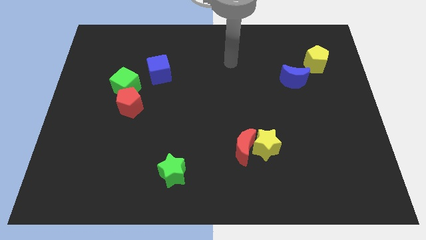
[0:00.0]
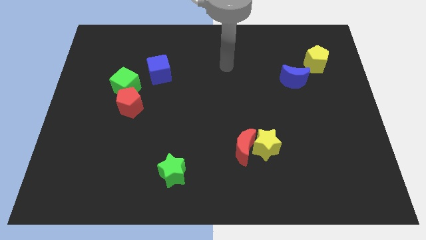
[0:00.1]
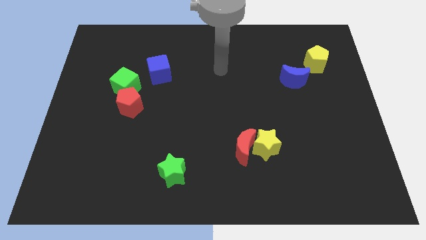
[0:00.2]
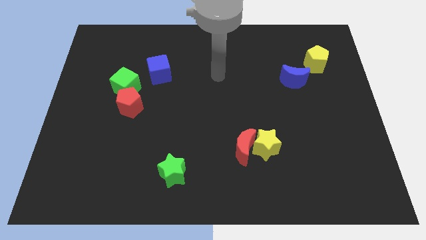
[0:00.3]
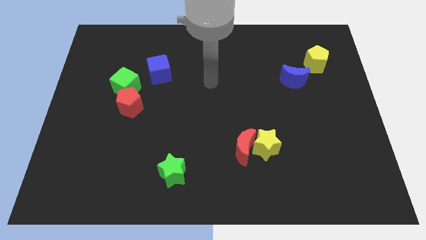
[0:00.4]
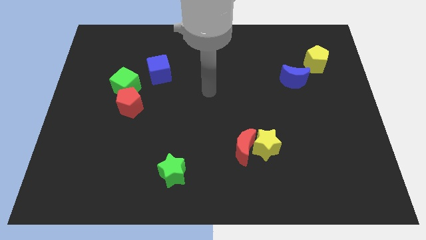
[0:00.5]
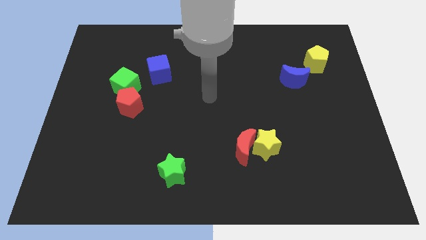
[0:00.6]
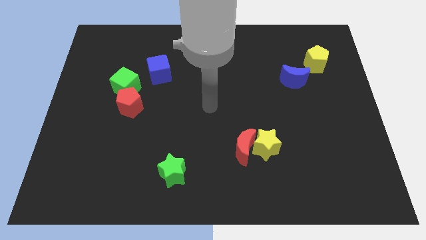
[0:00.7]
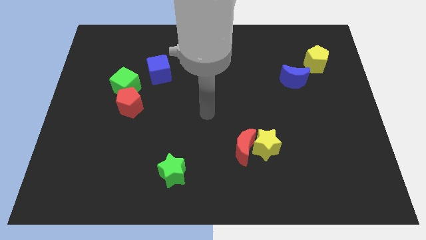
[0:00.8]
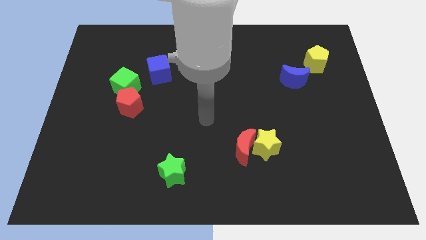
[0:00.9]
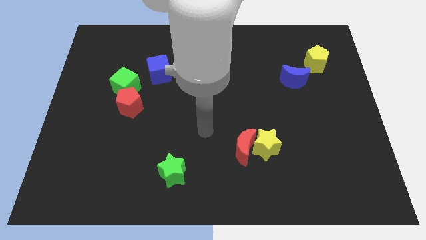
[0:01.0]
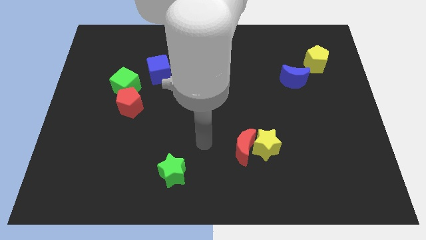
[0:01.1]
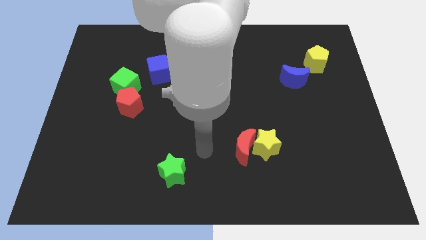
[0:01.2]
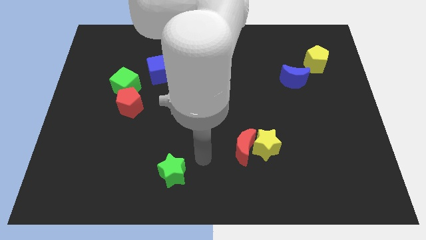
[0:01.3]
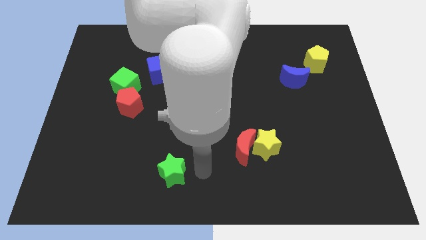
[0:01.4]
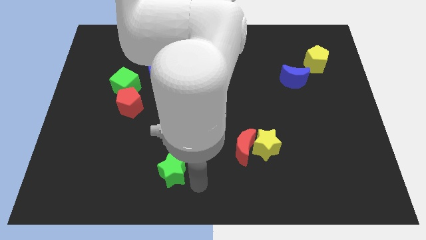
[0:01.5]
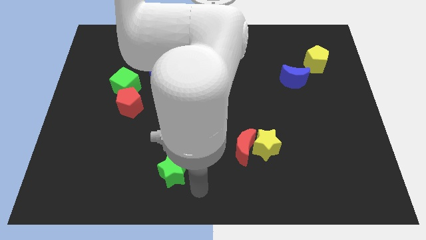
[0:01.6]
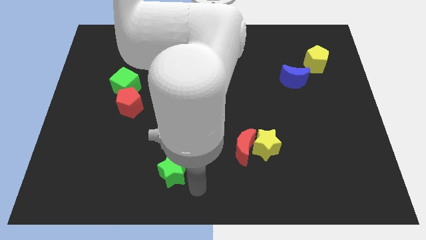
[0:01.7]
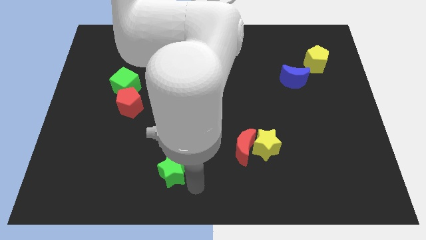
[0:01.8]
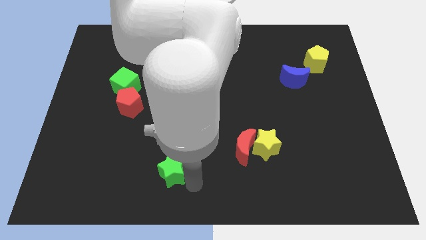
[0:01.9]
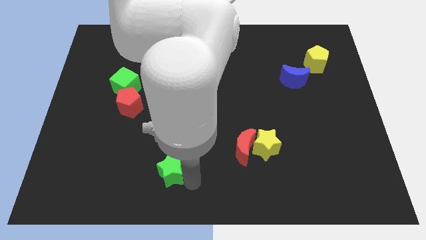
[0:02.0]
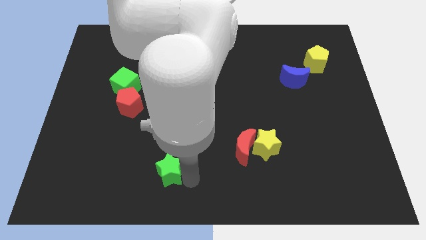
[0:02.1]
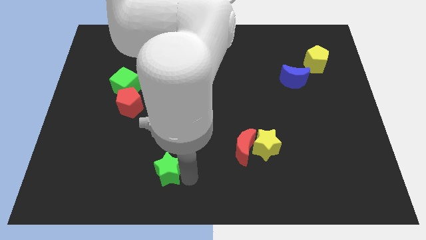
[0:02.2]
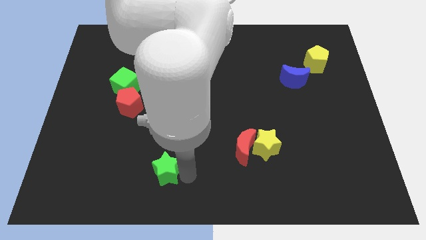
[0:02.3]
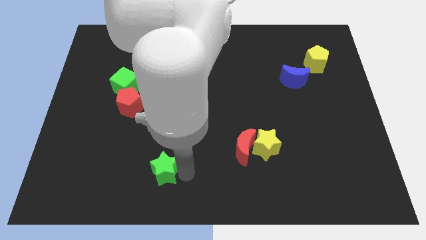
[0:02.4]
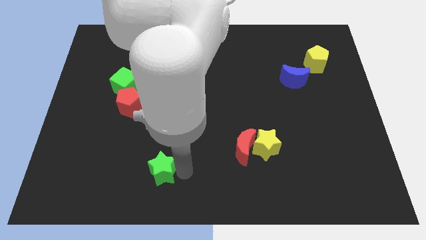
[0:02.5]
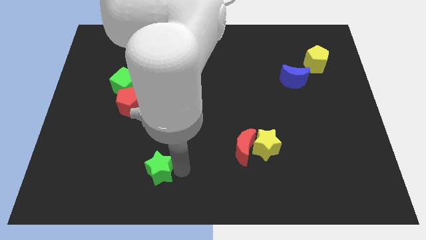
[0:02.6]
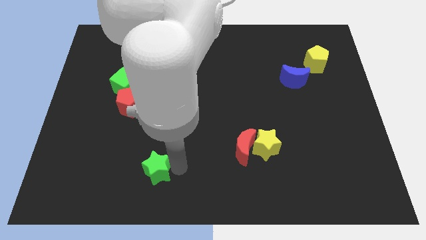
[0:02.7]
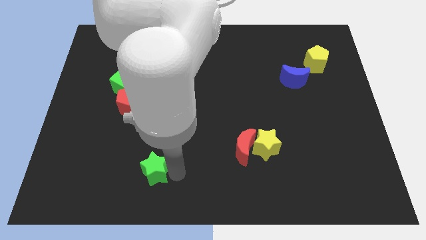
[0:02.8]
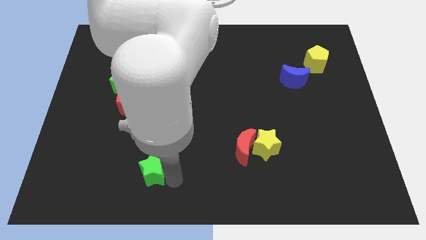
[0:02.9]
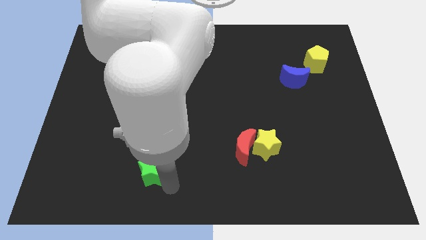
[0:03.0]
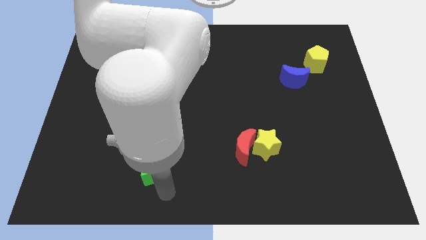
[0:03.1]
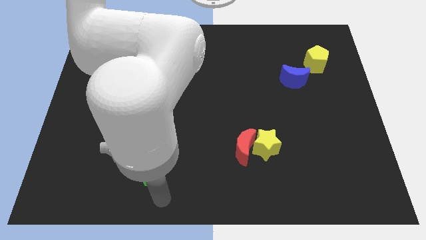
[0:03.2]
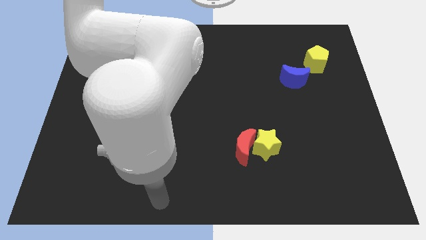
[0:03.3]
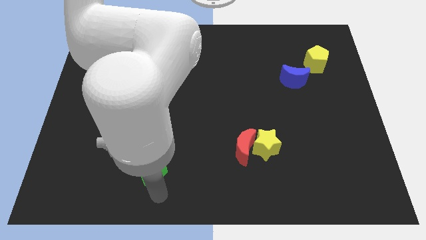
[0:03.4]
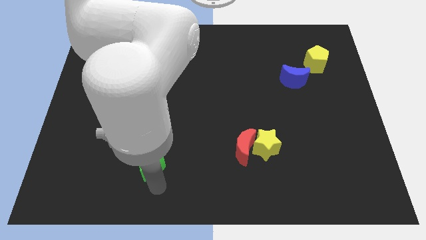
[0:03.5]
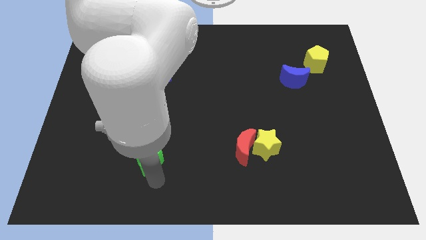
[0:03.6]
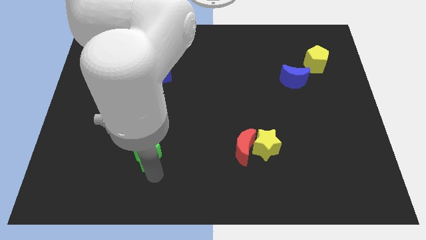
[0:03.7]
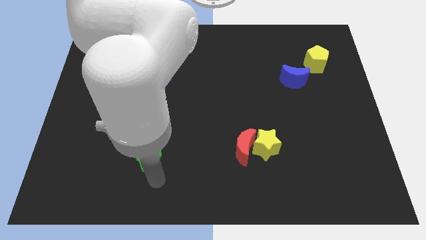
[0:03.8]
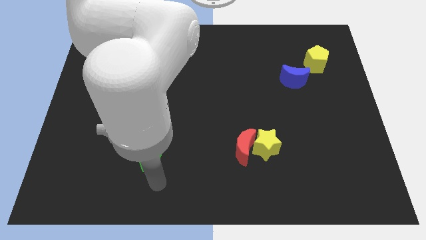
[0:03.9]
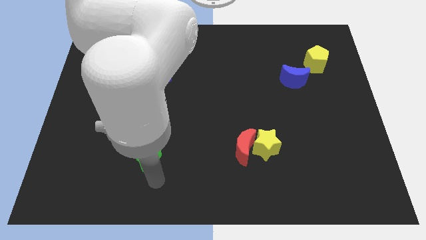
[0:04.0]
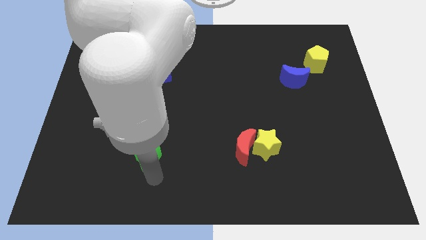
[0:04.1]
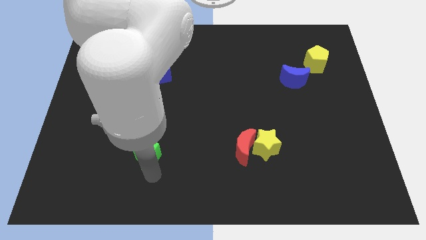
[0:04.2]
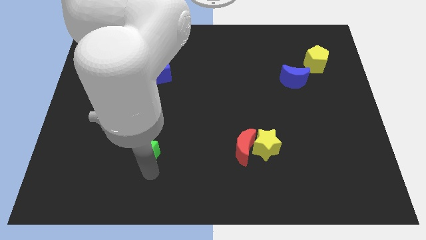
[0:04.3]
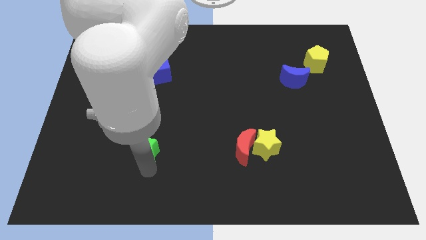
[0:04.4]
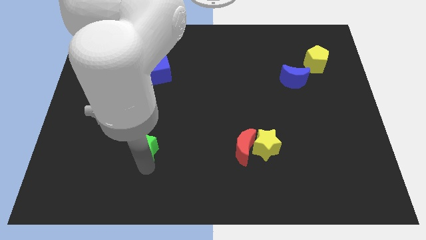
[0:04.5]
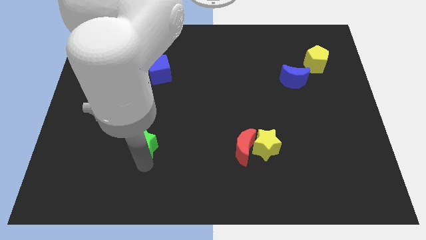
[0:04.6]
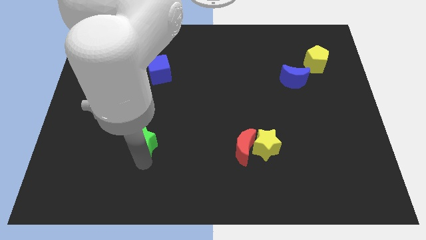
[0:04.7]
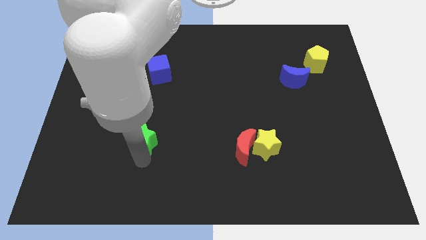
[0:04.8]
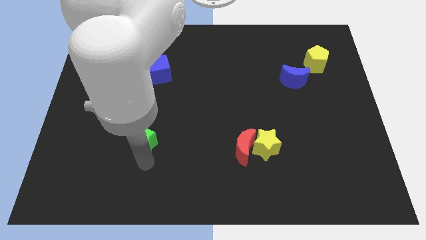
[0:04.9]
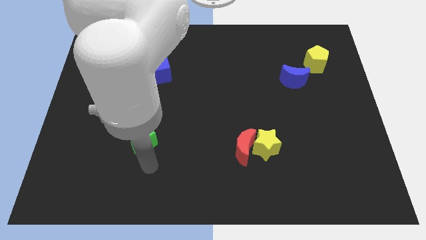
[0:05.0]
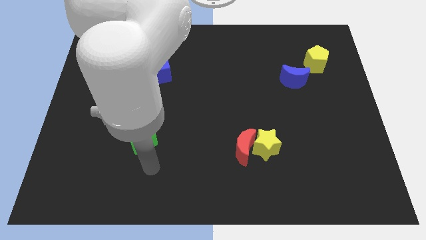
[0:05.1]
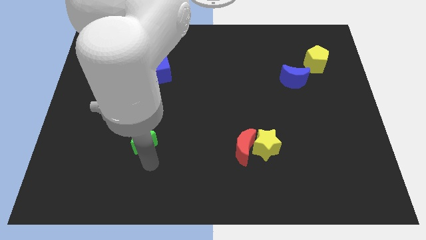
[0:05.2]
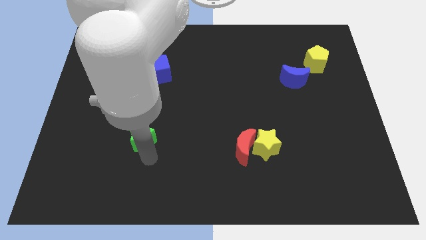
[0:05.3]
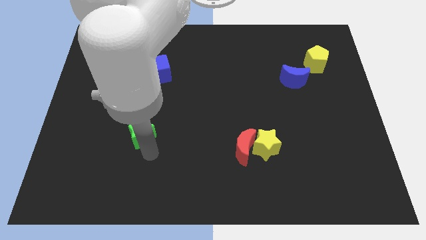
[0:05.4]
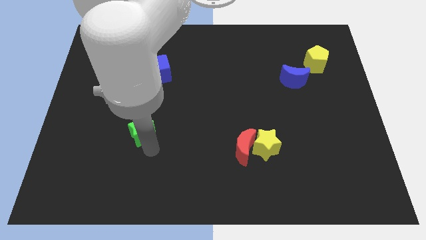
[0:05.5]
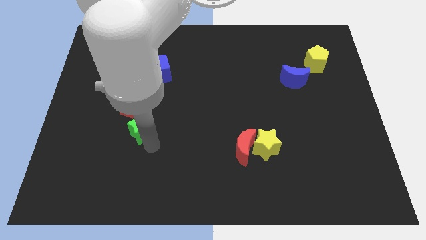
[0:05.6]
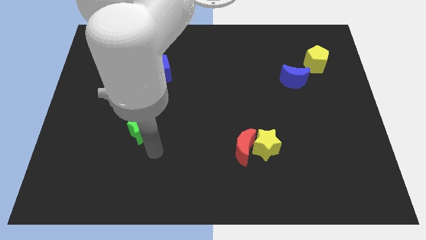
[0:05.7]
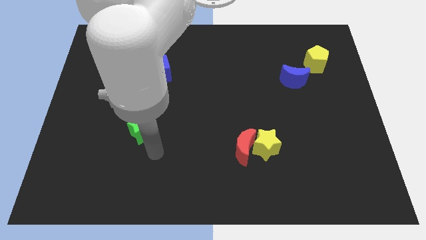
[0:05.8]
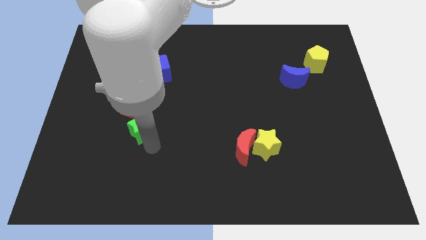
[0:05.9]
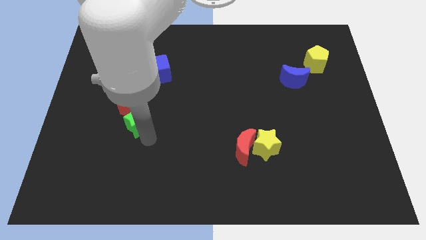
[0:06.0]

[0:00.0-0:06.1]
put the green star to the red pentagon

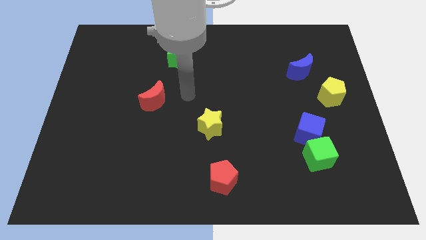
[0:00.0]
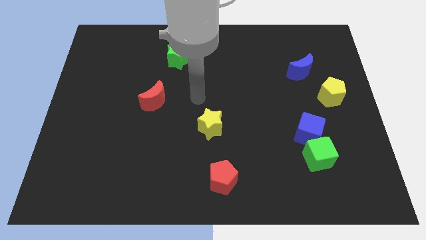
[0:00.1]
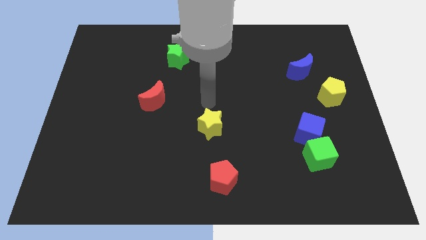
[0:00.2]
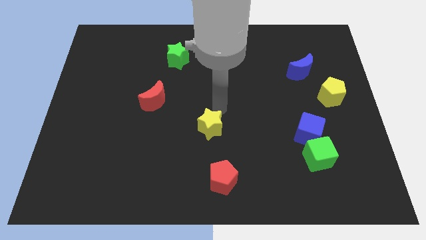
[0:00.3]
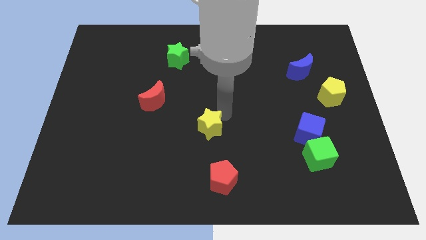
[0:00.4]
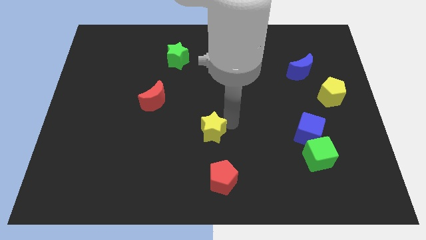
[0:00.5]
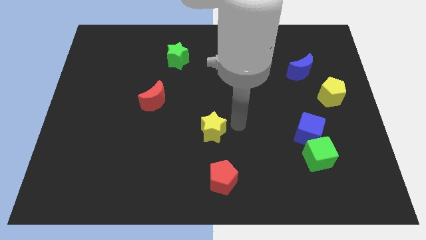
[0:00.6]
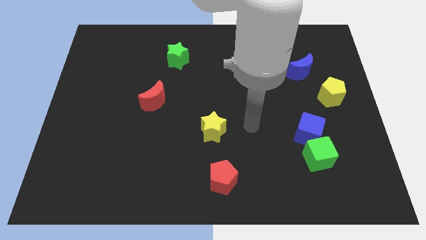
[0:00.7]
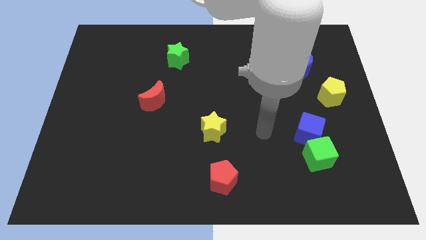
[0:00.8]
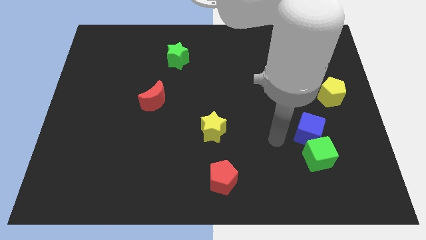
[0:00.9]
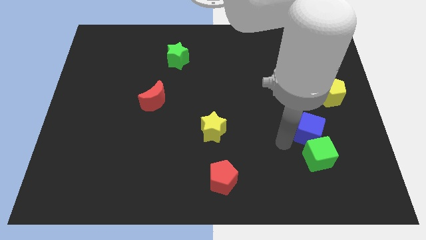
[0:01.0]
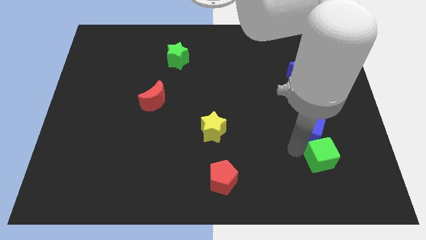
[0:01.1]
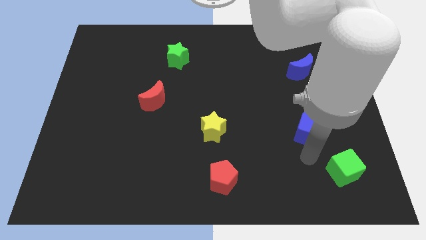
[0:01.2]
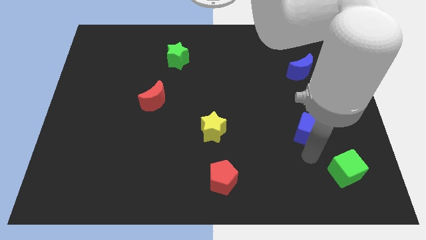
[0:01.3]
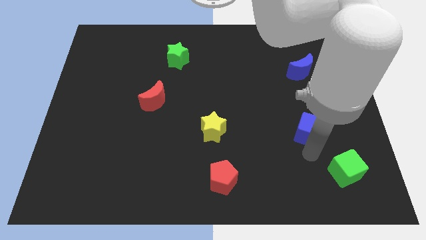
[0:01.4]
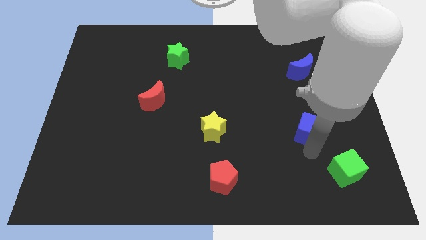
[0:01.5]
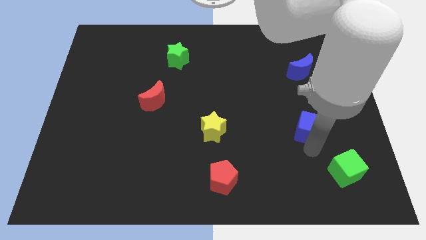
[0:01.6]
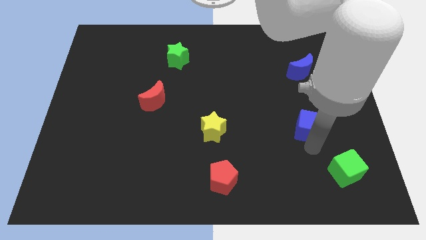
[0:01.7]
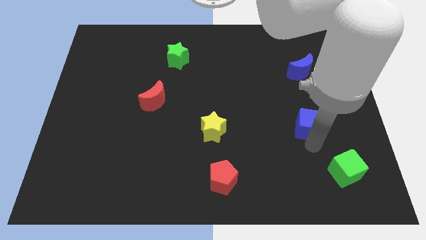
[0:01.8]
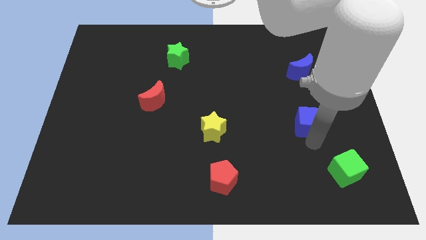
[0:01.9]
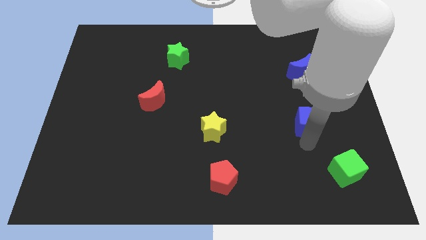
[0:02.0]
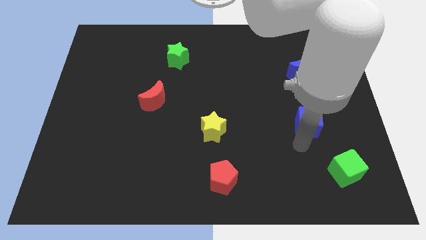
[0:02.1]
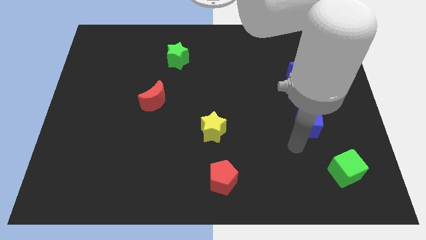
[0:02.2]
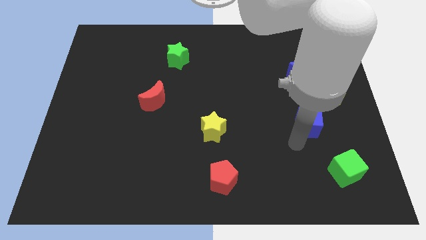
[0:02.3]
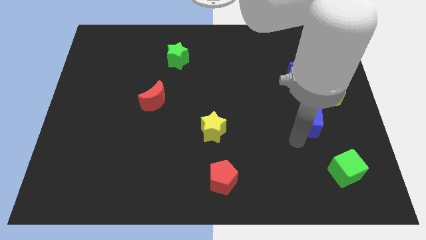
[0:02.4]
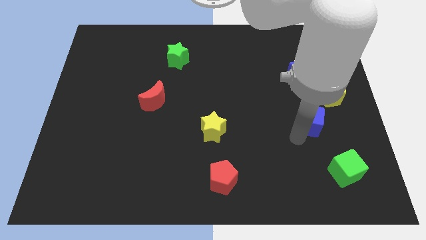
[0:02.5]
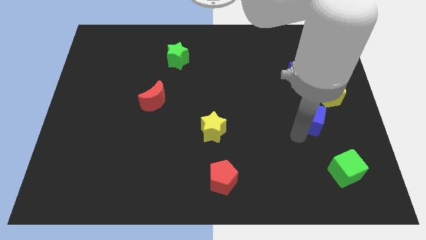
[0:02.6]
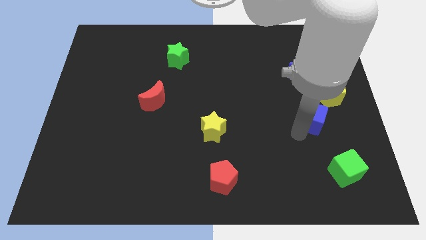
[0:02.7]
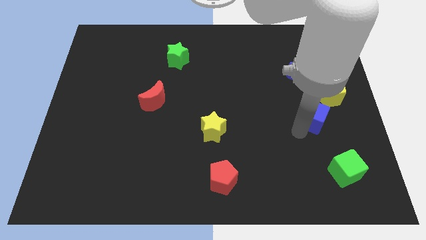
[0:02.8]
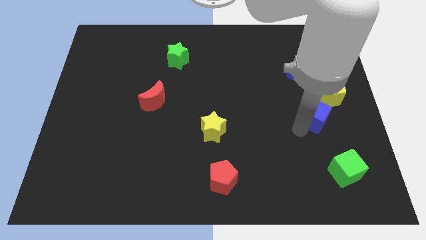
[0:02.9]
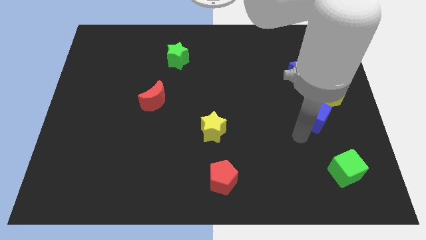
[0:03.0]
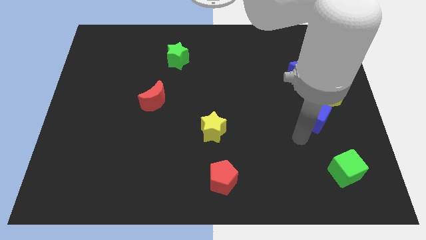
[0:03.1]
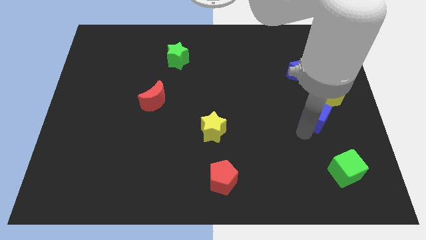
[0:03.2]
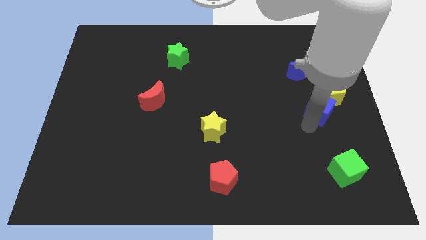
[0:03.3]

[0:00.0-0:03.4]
slide the blue cube to the yellow pentagon
